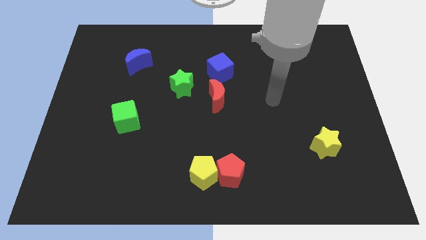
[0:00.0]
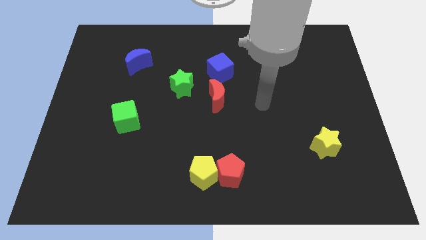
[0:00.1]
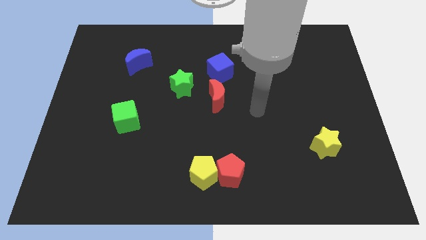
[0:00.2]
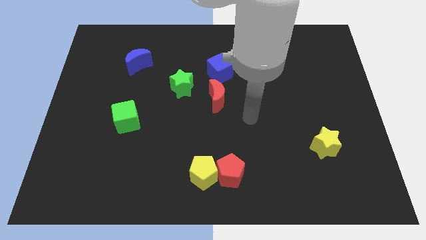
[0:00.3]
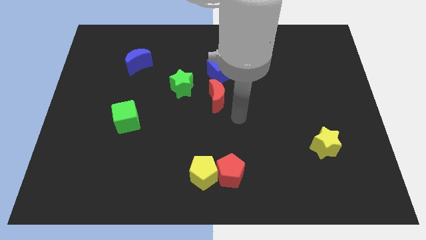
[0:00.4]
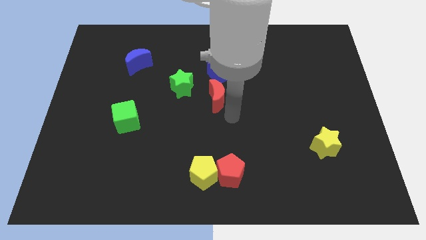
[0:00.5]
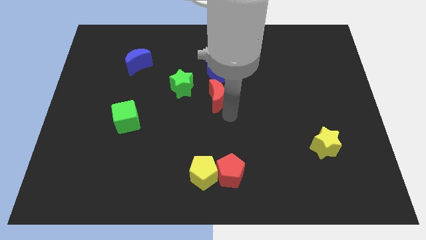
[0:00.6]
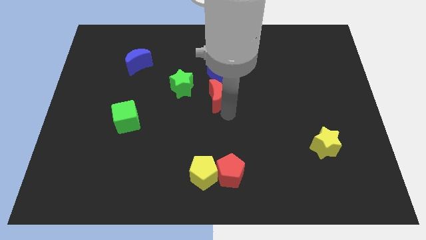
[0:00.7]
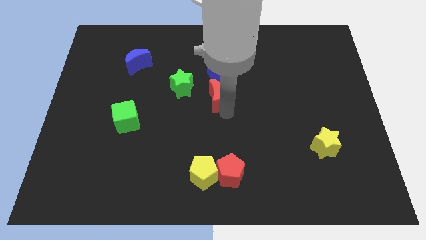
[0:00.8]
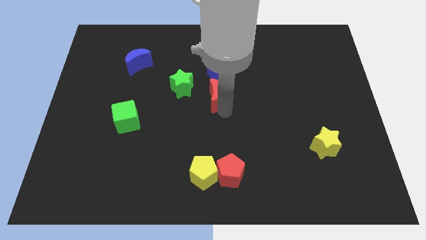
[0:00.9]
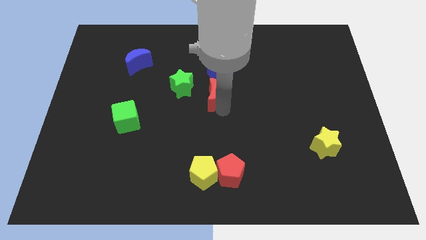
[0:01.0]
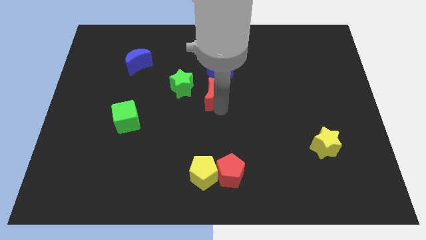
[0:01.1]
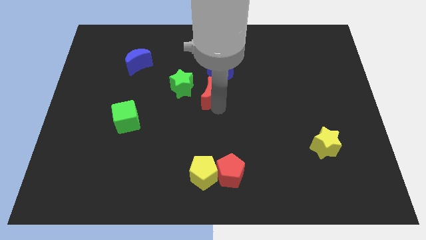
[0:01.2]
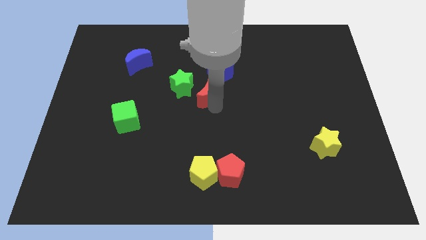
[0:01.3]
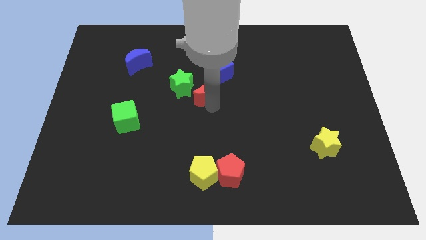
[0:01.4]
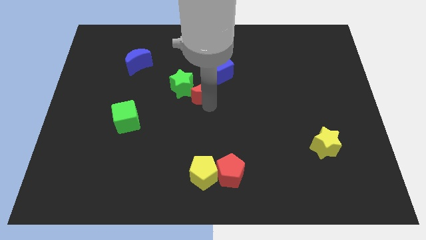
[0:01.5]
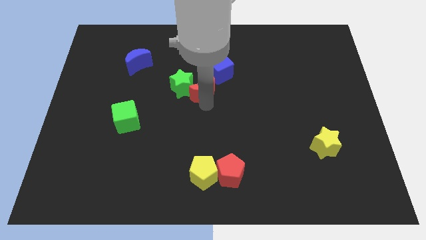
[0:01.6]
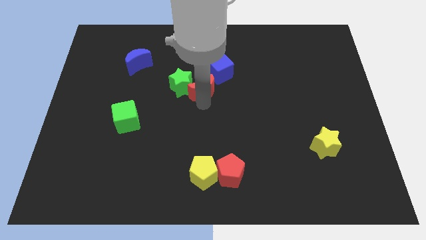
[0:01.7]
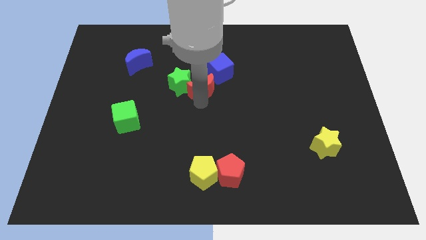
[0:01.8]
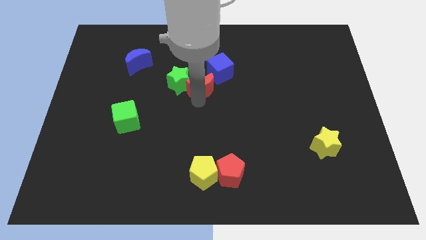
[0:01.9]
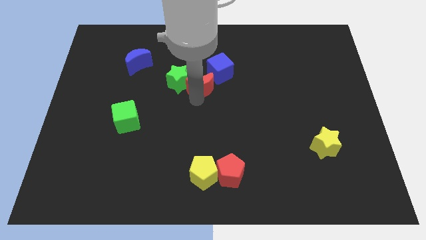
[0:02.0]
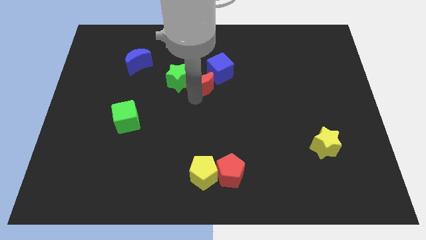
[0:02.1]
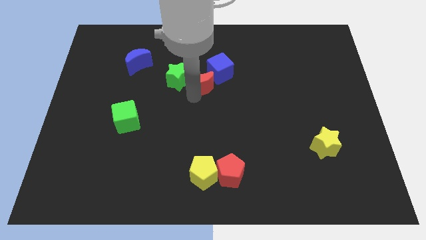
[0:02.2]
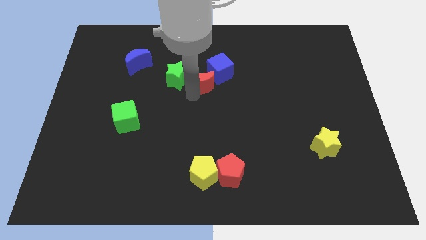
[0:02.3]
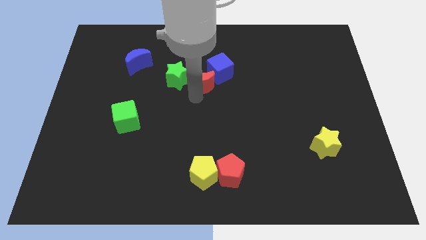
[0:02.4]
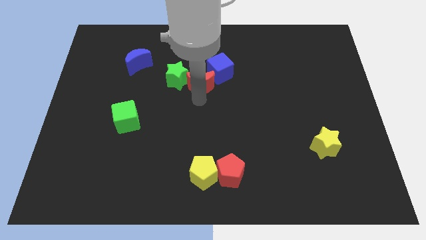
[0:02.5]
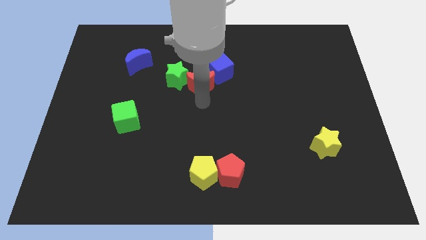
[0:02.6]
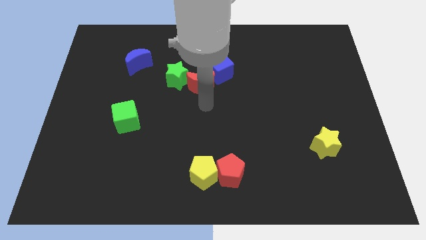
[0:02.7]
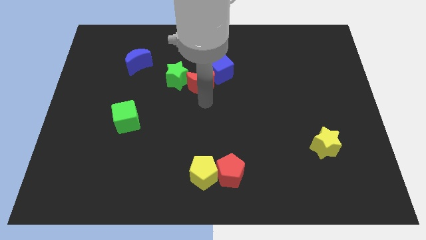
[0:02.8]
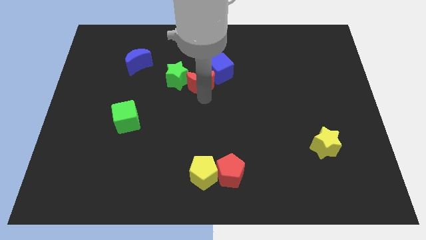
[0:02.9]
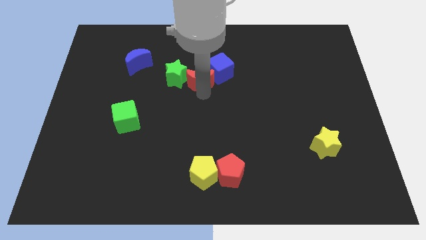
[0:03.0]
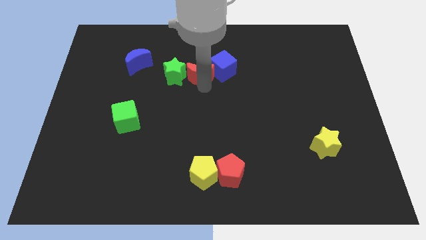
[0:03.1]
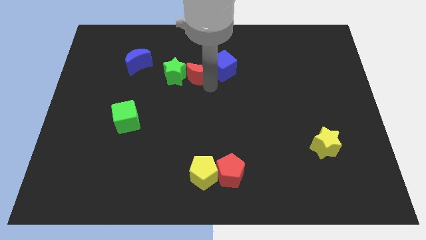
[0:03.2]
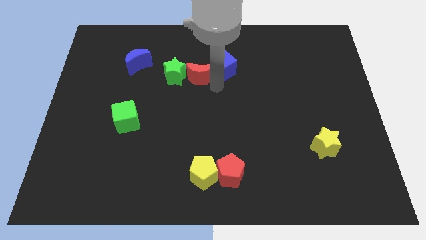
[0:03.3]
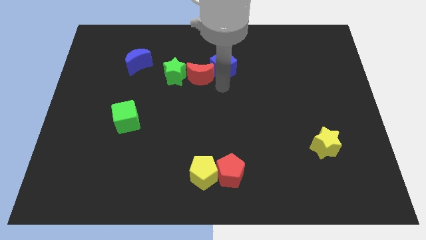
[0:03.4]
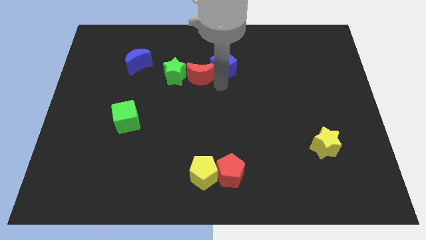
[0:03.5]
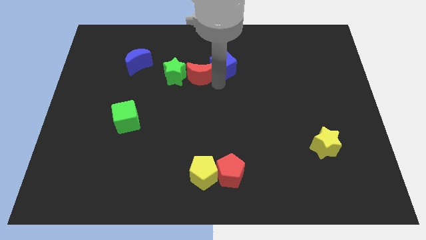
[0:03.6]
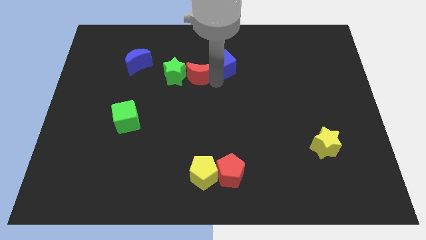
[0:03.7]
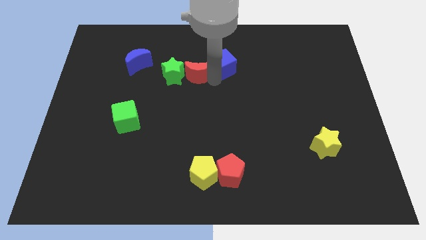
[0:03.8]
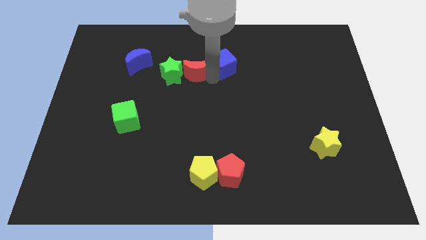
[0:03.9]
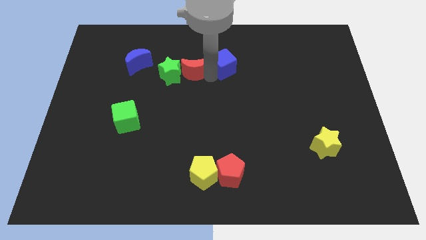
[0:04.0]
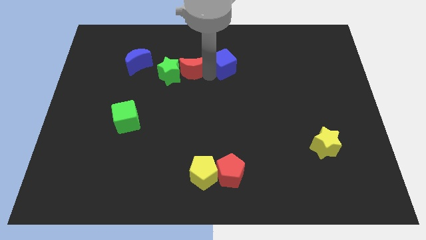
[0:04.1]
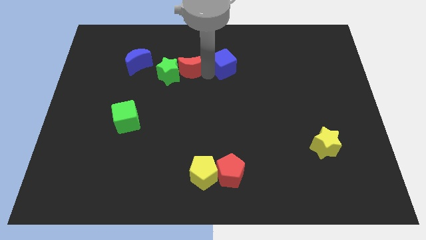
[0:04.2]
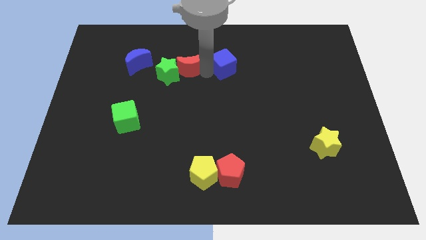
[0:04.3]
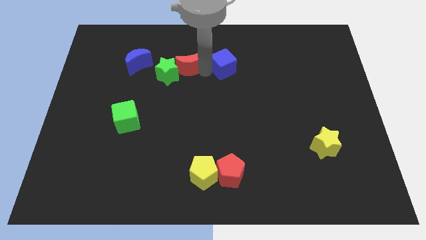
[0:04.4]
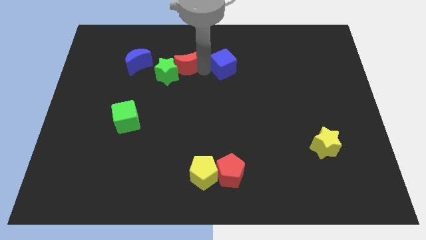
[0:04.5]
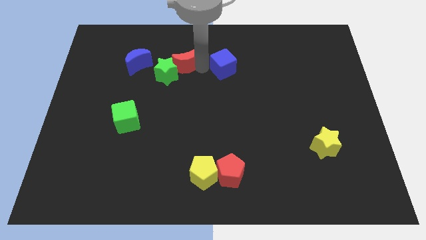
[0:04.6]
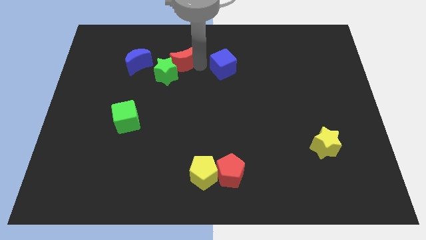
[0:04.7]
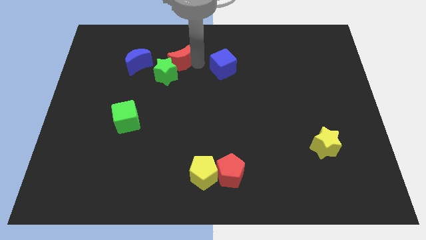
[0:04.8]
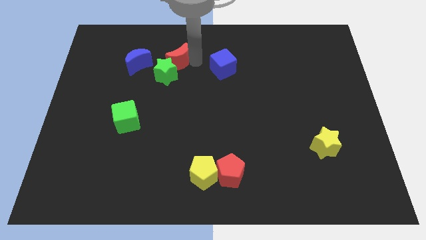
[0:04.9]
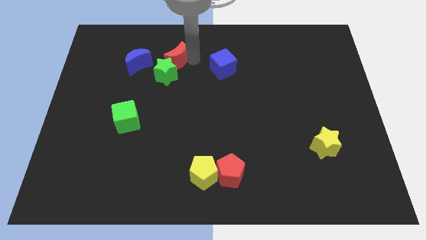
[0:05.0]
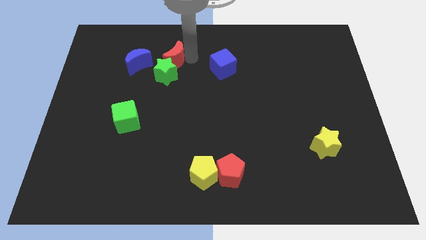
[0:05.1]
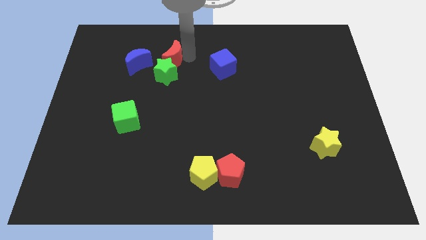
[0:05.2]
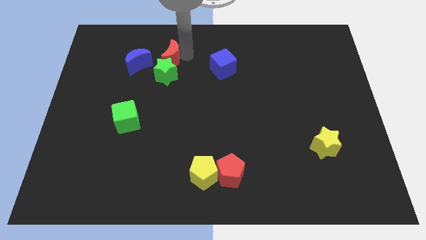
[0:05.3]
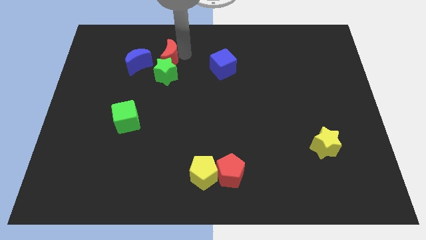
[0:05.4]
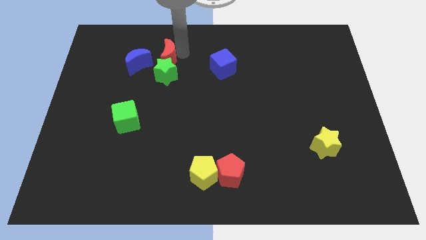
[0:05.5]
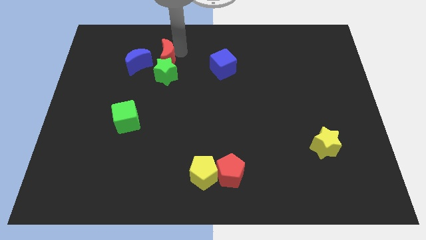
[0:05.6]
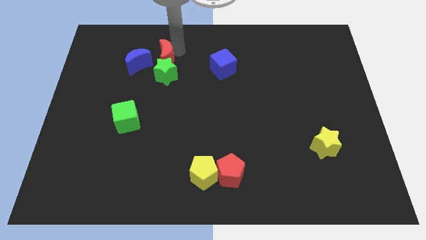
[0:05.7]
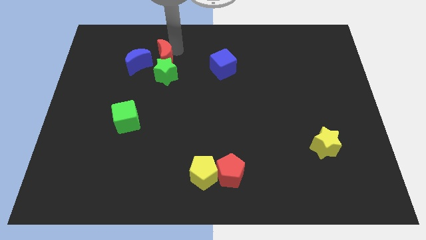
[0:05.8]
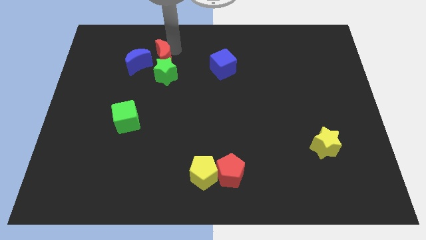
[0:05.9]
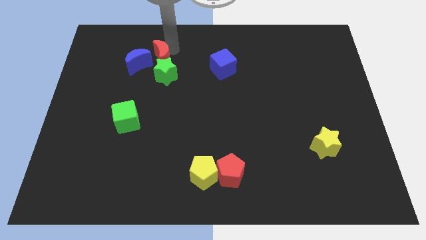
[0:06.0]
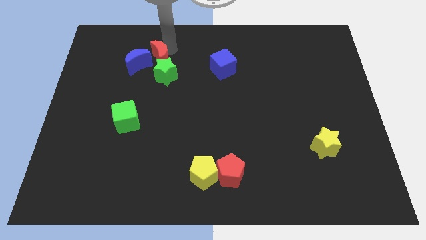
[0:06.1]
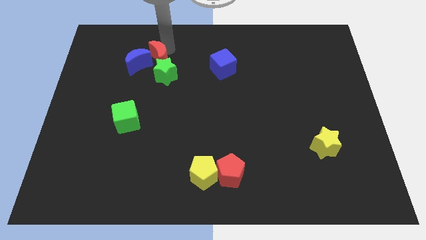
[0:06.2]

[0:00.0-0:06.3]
put the red moon close to the blue moon

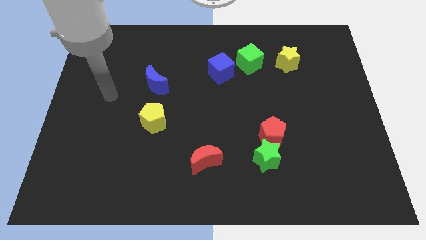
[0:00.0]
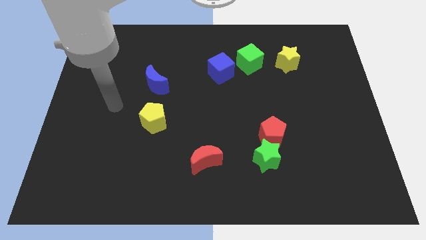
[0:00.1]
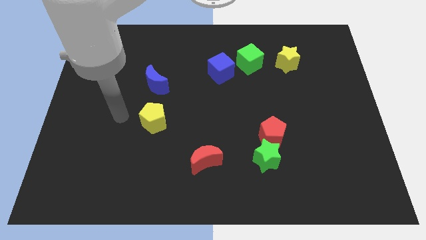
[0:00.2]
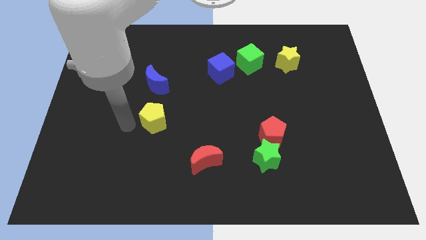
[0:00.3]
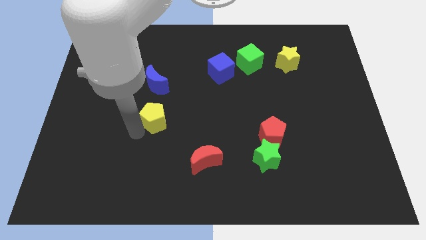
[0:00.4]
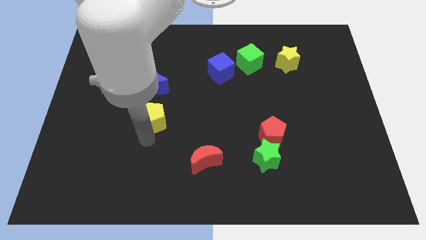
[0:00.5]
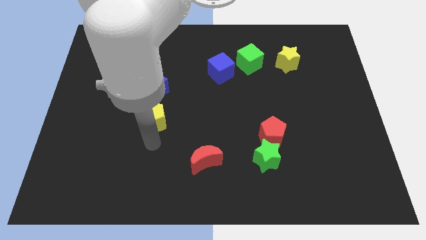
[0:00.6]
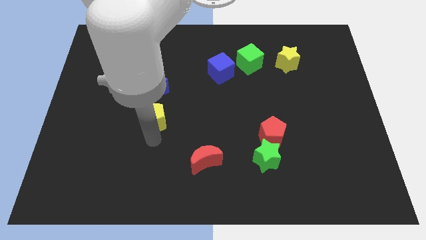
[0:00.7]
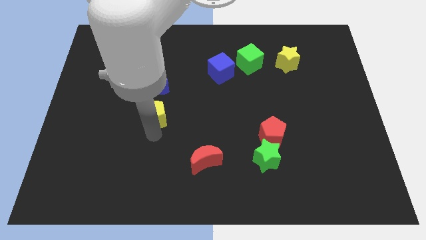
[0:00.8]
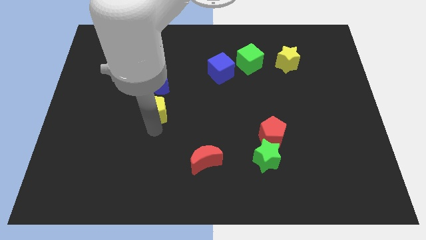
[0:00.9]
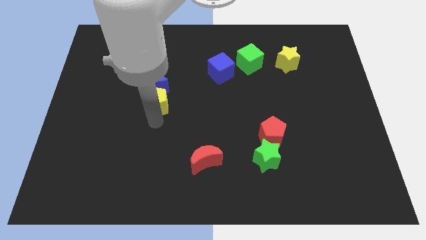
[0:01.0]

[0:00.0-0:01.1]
move the yellow pentagon towards the blue moon

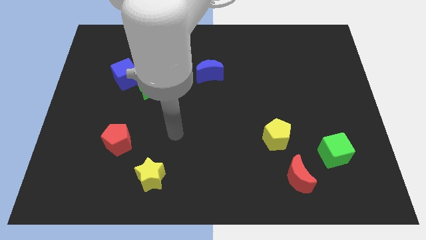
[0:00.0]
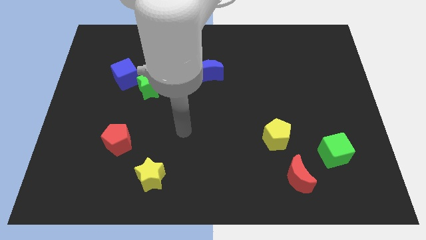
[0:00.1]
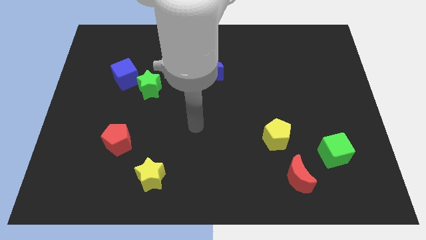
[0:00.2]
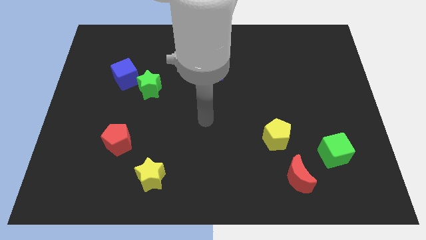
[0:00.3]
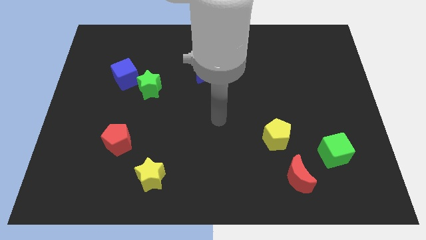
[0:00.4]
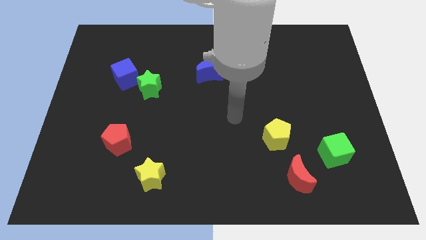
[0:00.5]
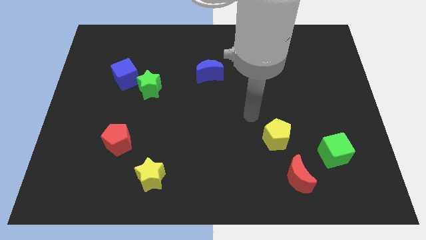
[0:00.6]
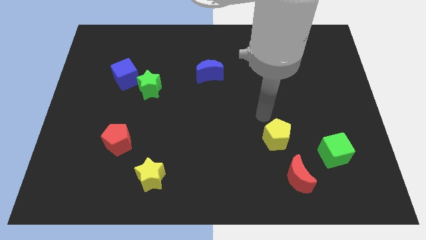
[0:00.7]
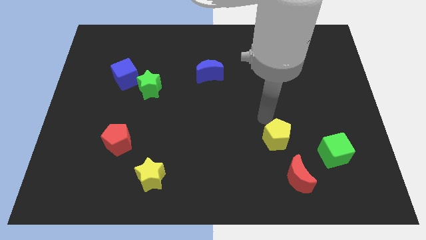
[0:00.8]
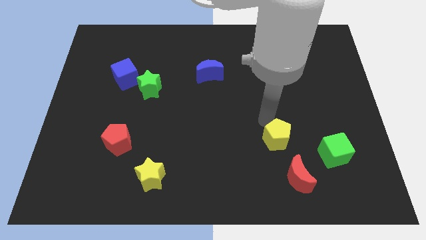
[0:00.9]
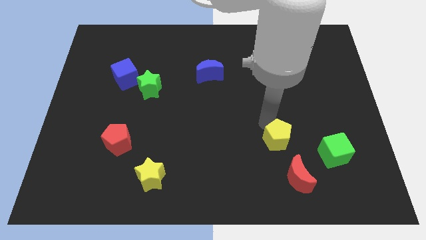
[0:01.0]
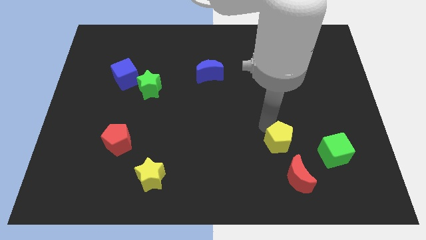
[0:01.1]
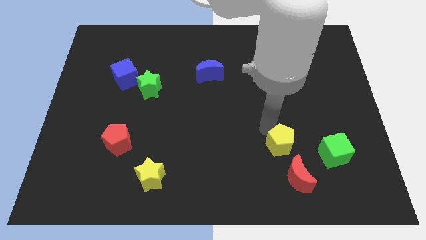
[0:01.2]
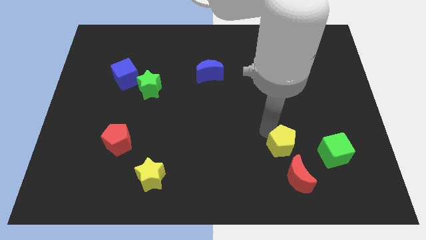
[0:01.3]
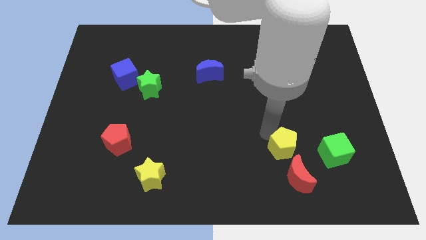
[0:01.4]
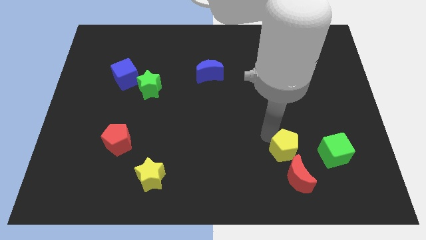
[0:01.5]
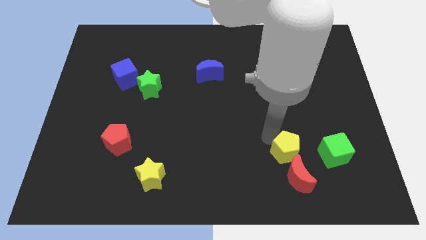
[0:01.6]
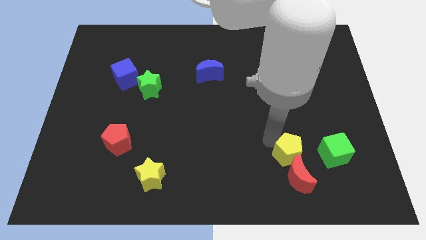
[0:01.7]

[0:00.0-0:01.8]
slide the yellow pentagon close to the red moon
